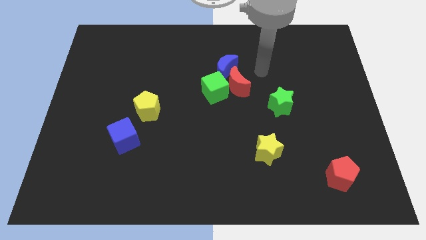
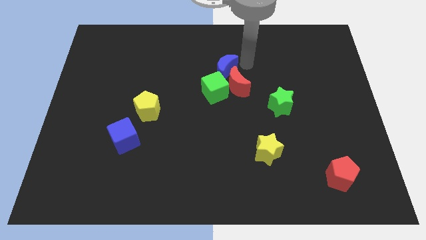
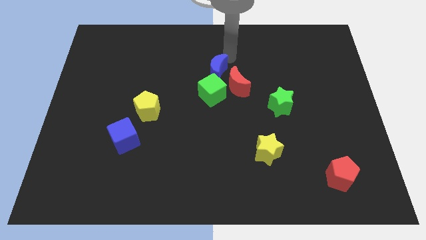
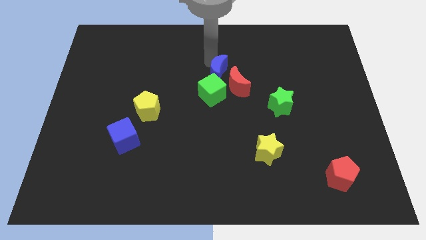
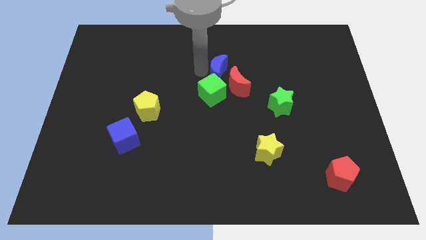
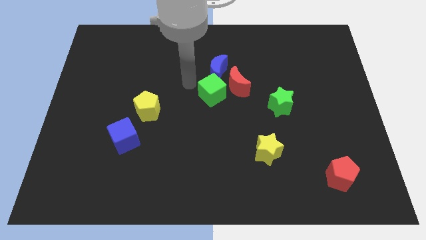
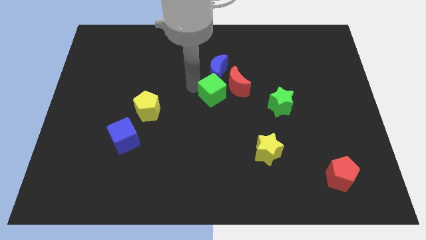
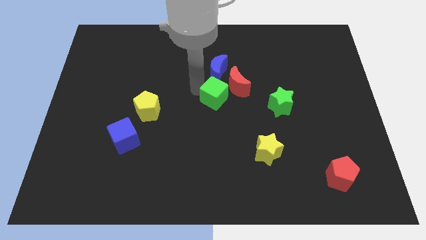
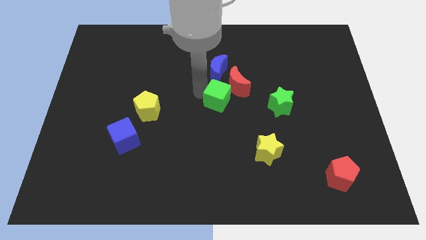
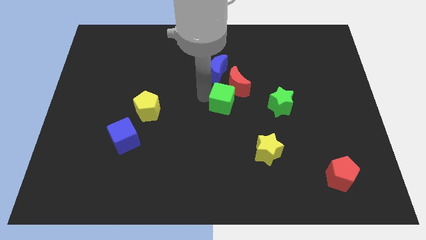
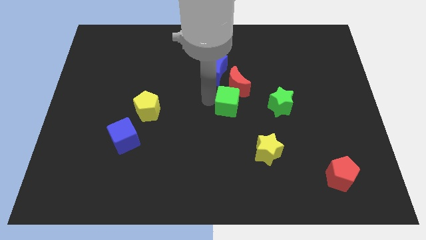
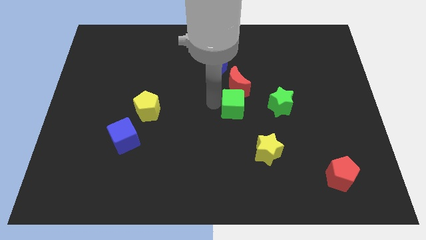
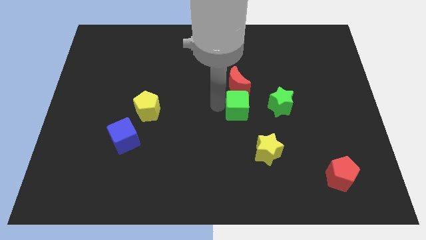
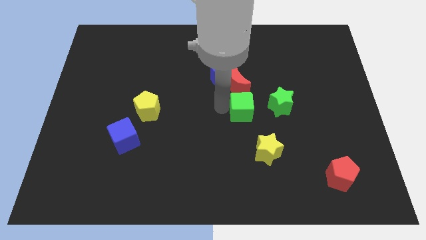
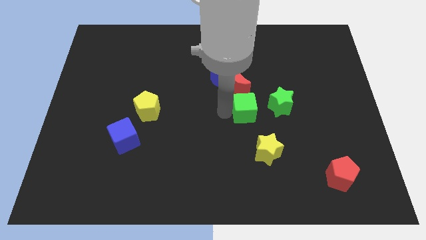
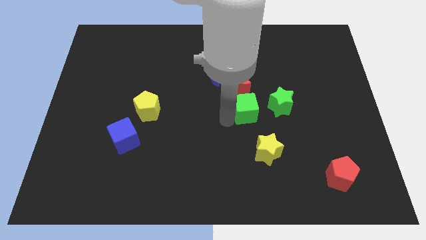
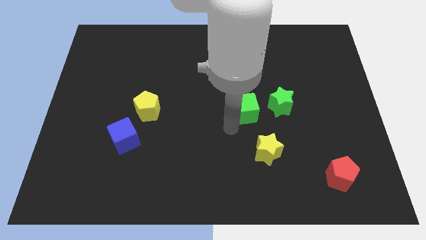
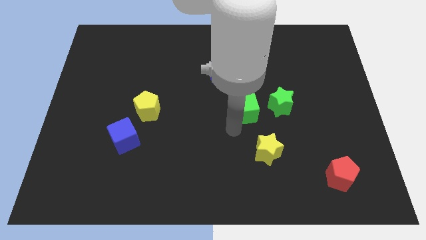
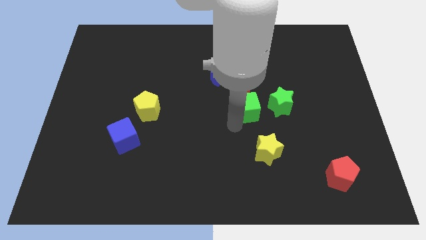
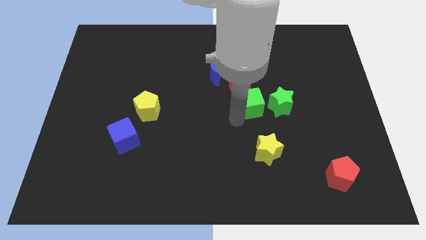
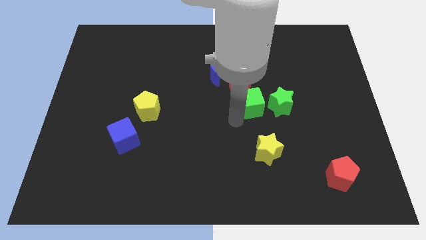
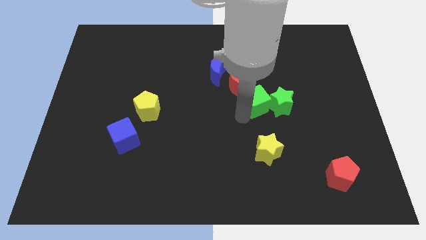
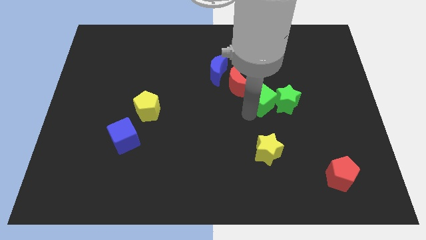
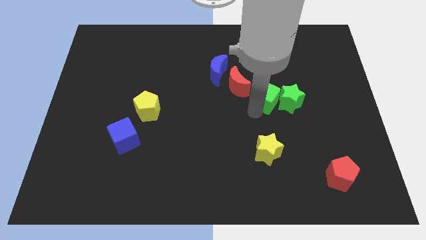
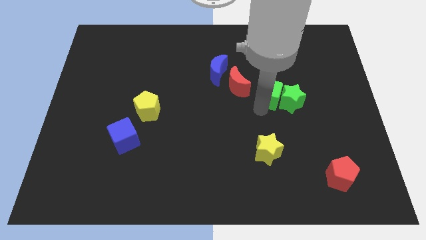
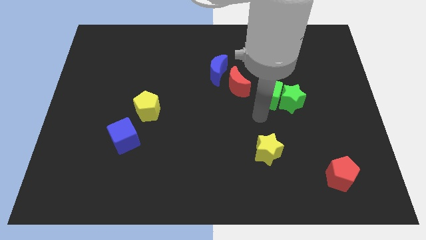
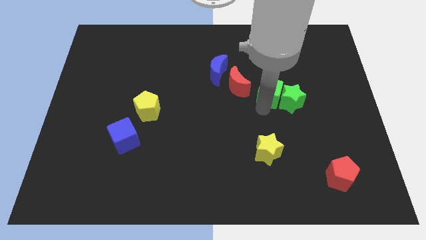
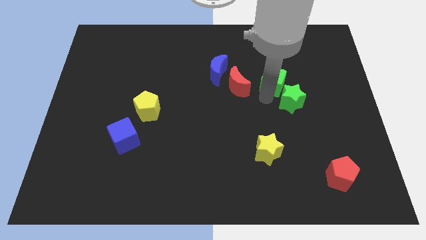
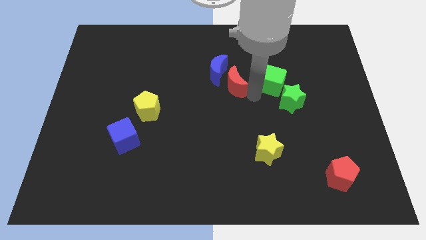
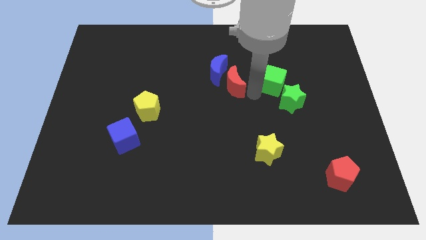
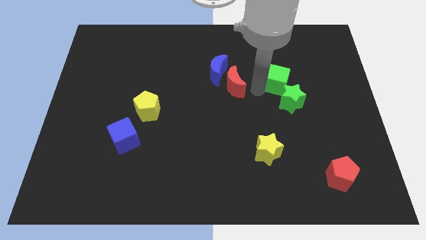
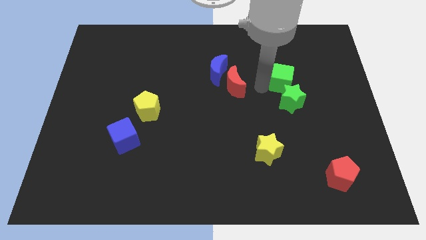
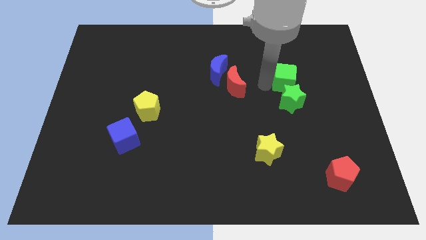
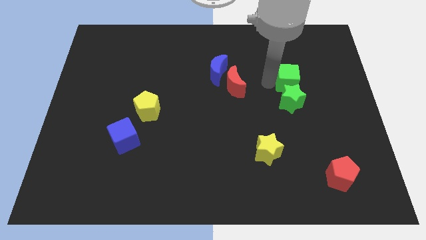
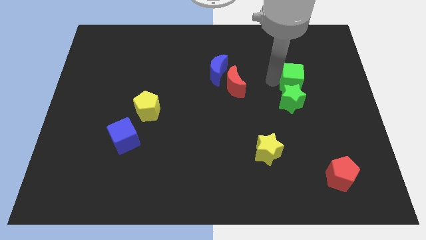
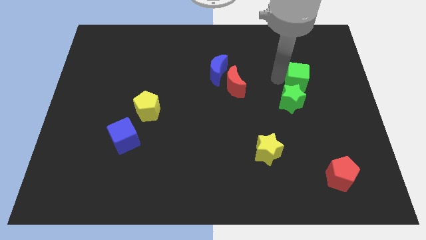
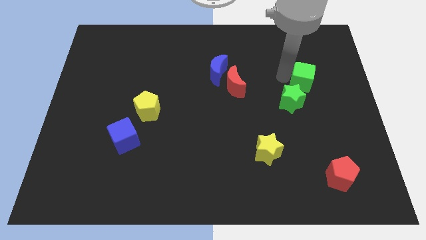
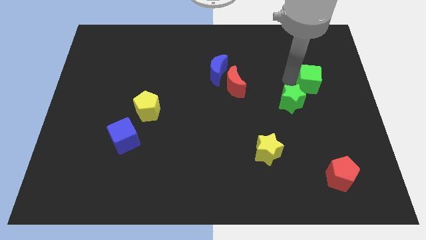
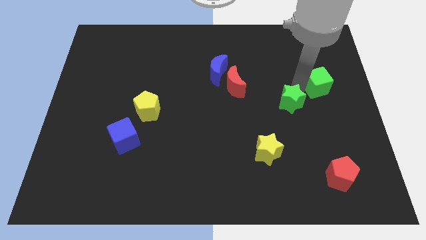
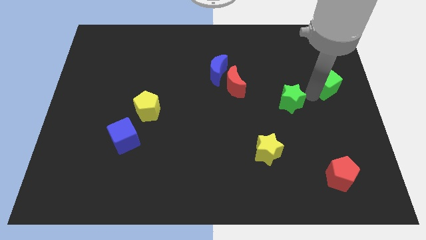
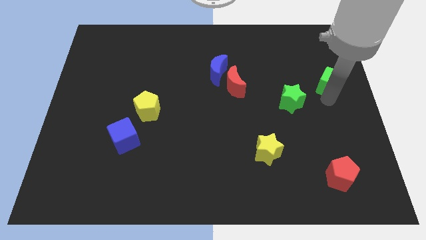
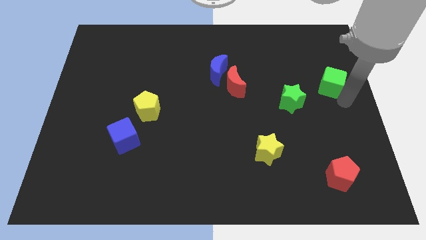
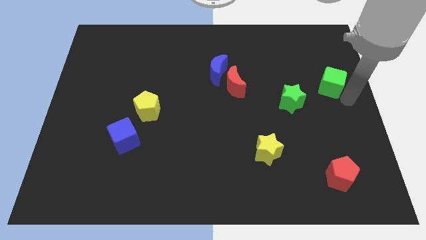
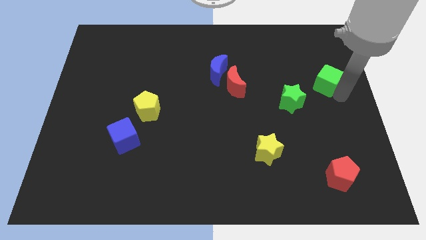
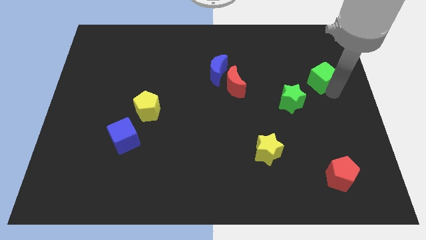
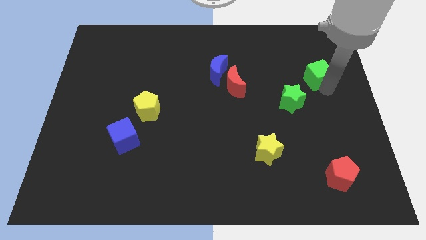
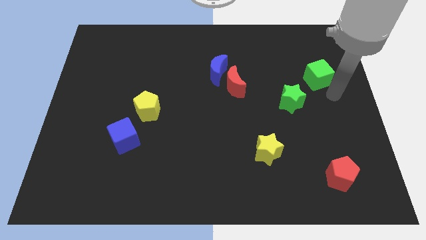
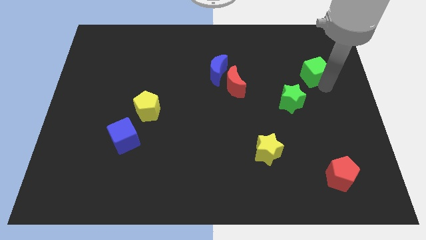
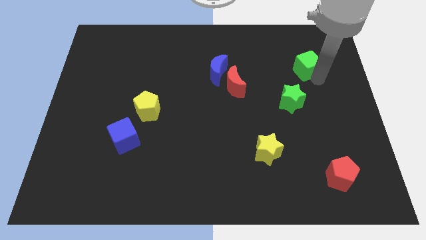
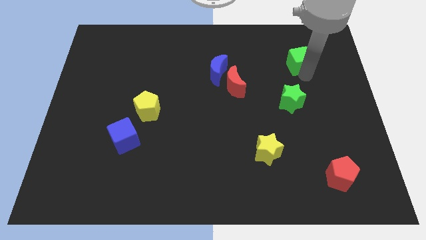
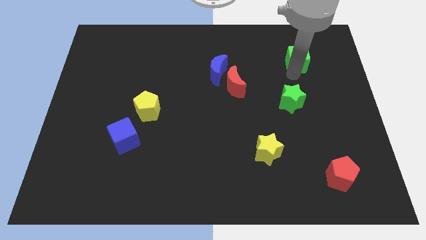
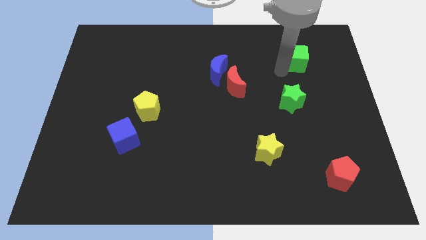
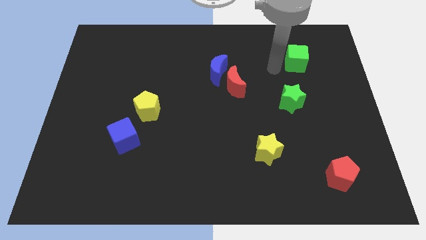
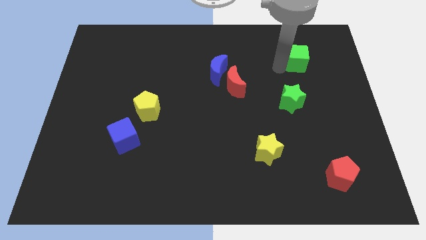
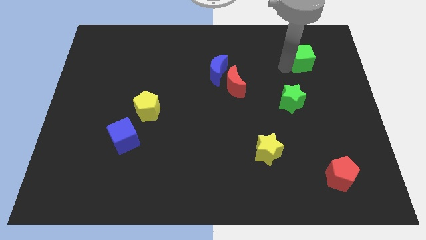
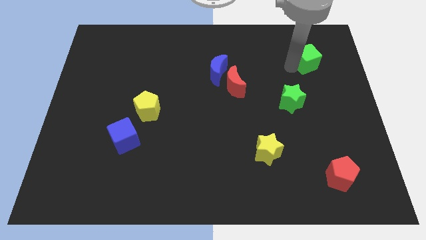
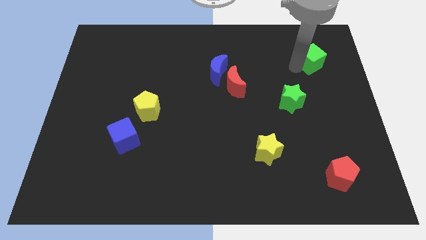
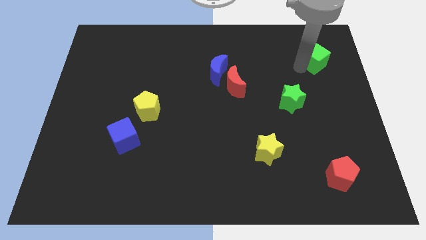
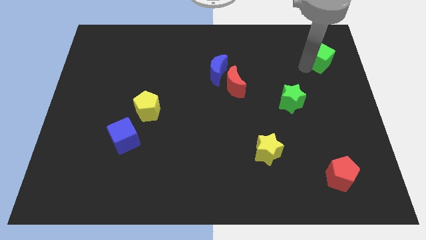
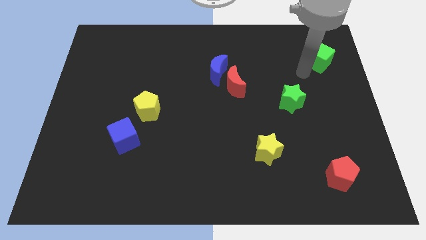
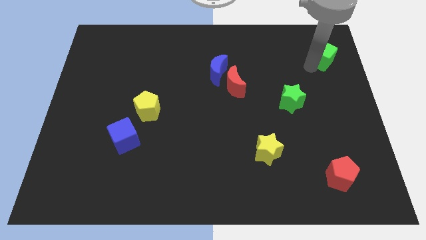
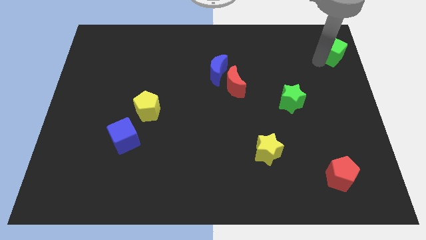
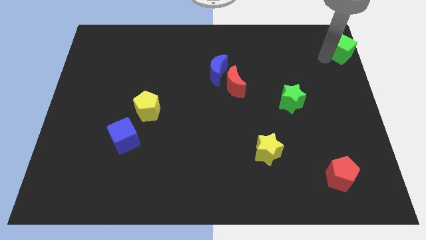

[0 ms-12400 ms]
slide the green cube to the upper right corner
